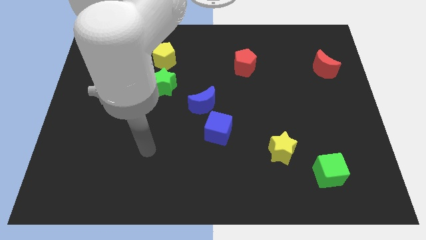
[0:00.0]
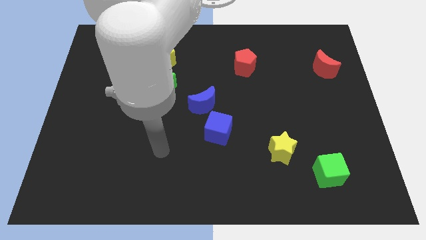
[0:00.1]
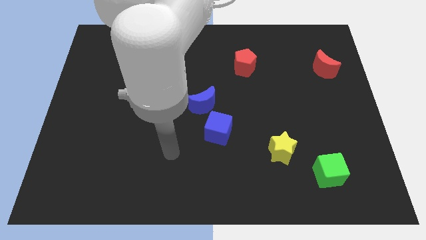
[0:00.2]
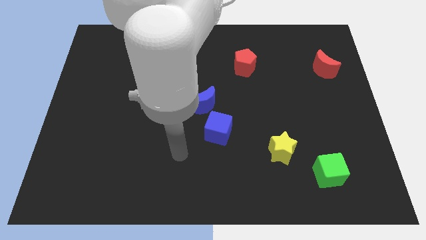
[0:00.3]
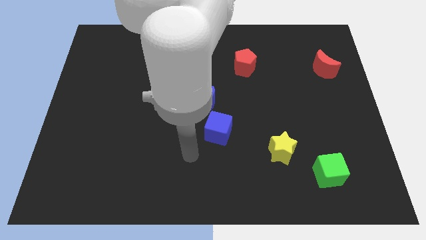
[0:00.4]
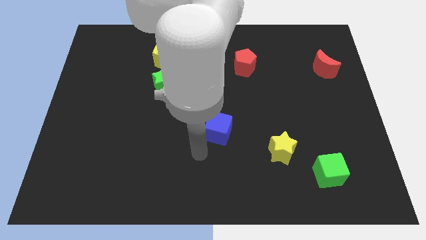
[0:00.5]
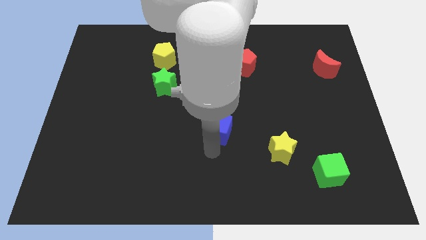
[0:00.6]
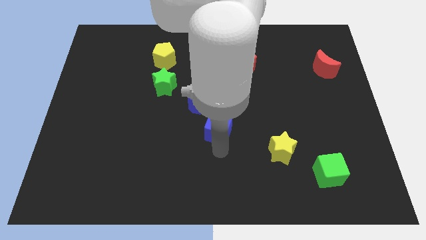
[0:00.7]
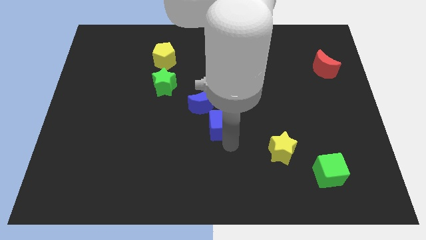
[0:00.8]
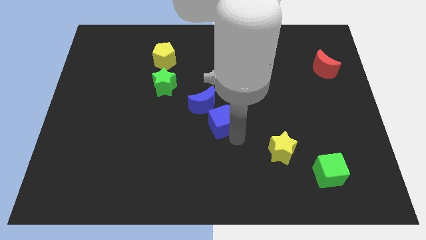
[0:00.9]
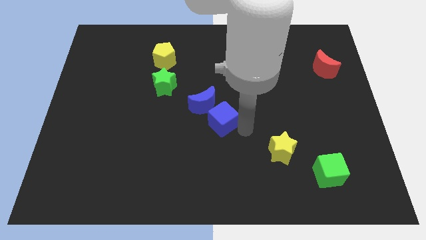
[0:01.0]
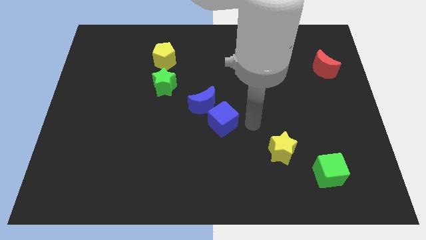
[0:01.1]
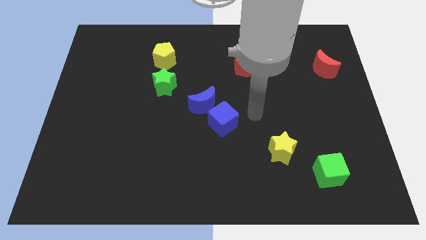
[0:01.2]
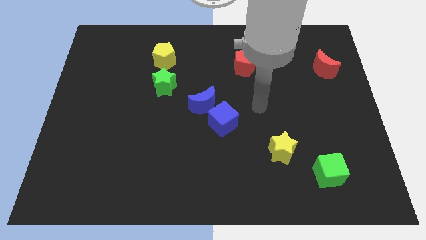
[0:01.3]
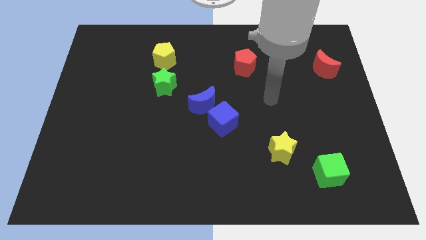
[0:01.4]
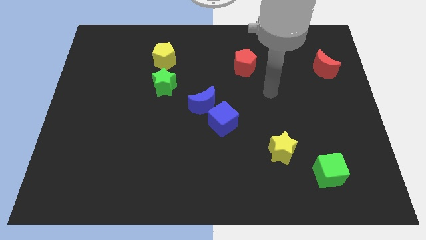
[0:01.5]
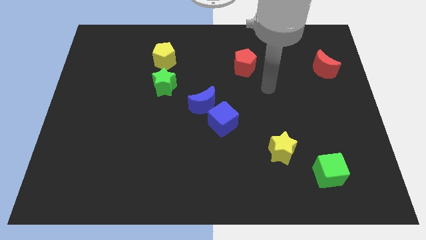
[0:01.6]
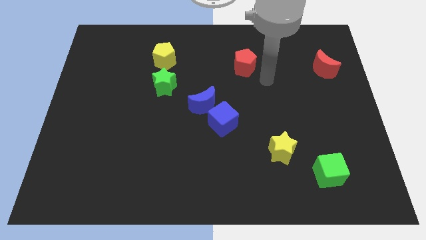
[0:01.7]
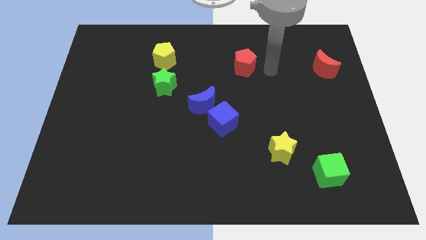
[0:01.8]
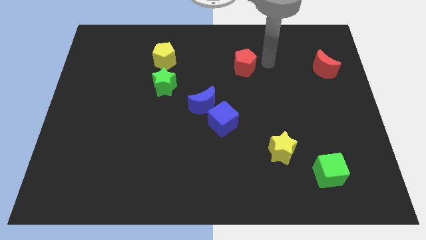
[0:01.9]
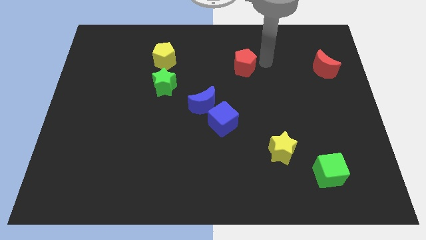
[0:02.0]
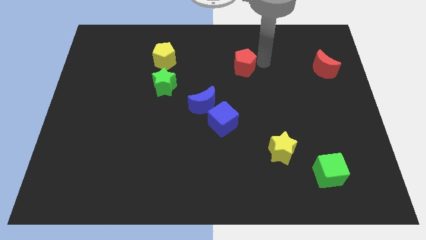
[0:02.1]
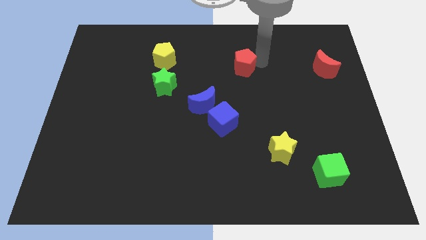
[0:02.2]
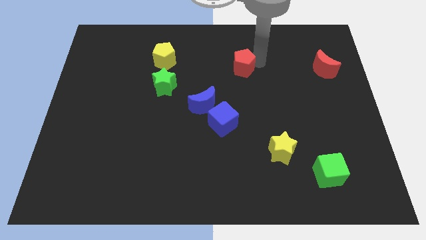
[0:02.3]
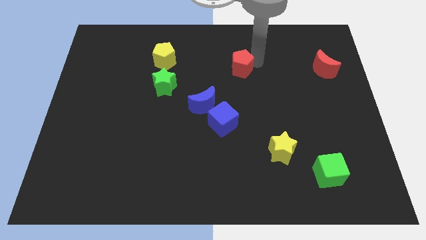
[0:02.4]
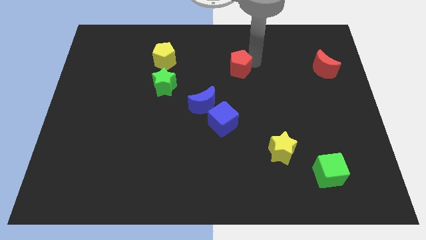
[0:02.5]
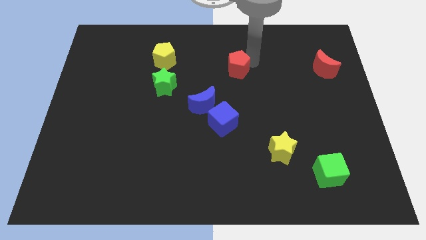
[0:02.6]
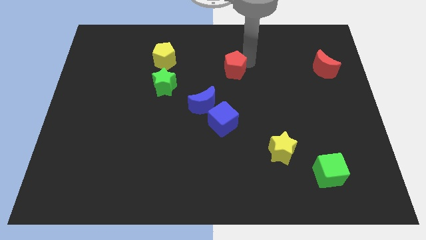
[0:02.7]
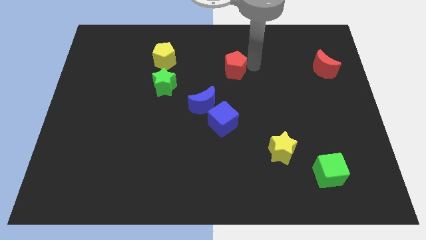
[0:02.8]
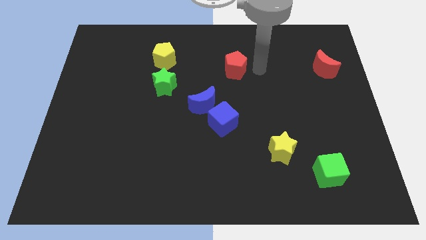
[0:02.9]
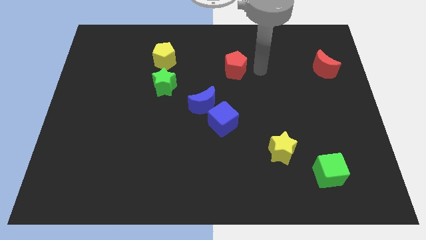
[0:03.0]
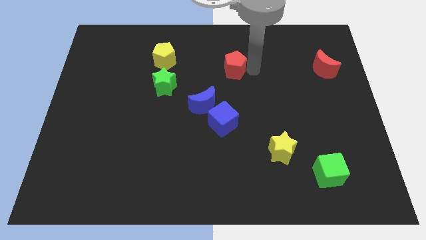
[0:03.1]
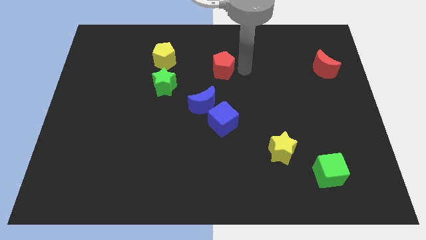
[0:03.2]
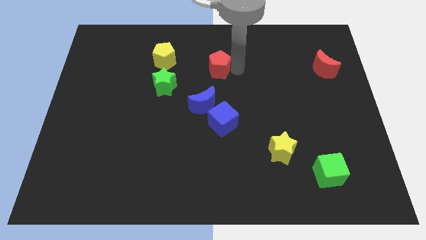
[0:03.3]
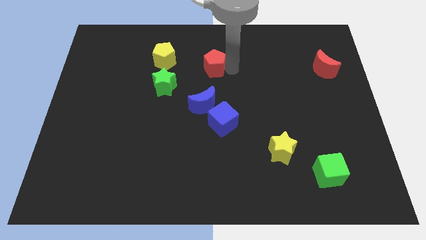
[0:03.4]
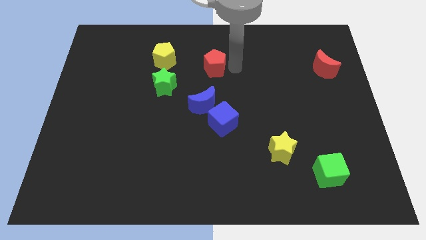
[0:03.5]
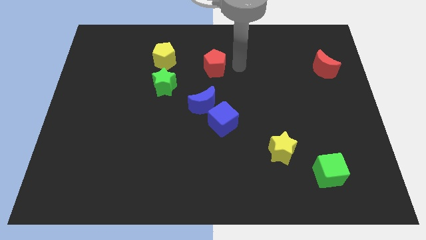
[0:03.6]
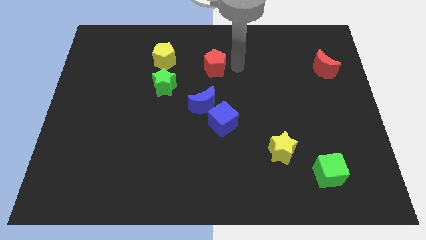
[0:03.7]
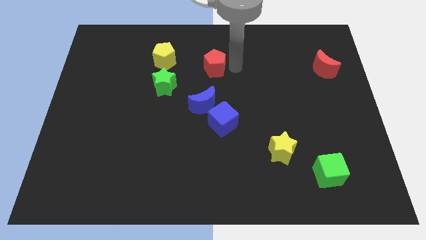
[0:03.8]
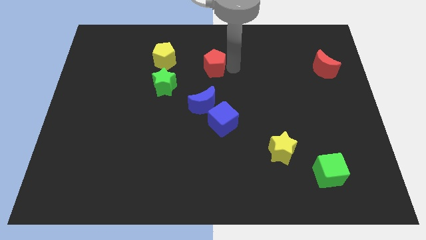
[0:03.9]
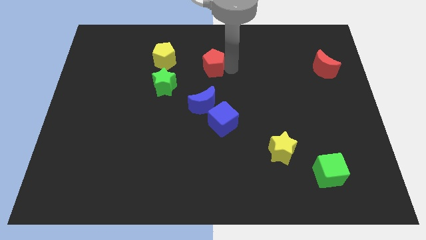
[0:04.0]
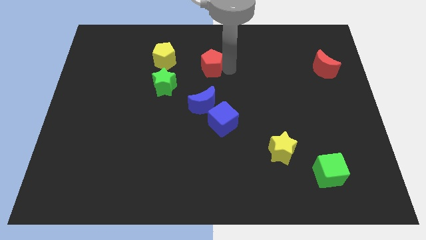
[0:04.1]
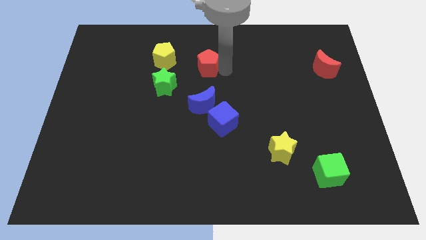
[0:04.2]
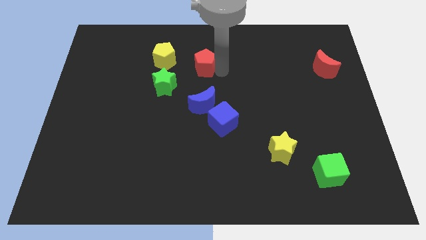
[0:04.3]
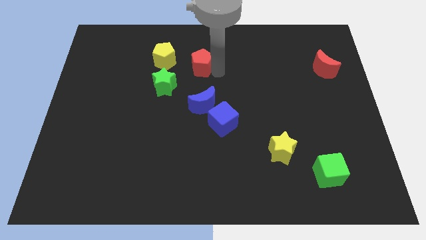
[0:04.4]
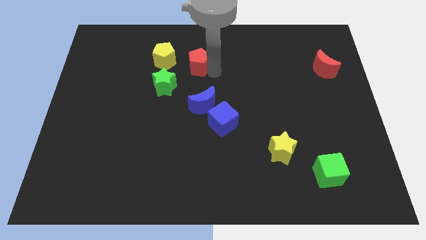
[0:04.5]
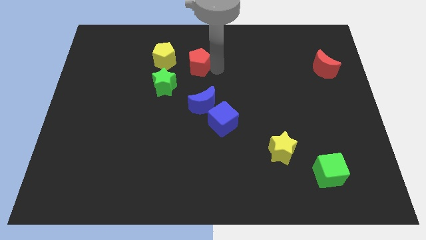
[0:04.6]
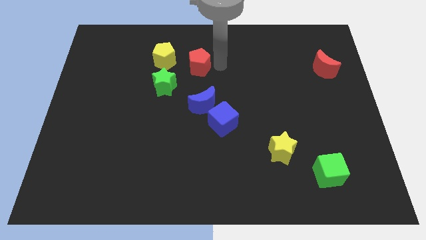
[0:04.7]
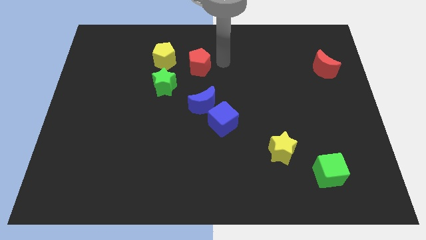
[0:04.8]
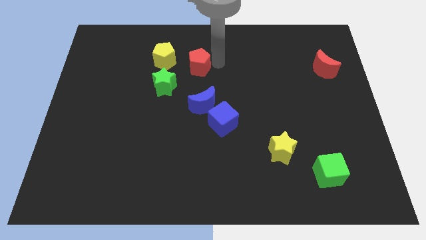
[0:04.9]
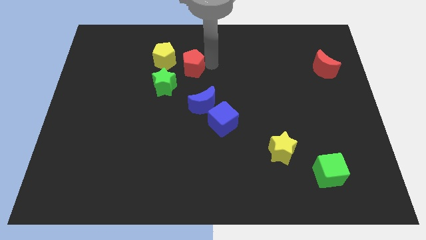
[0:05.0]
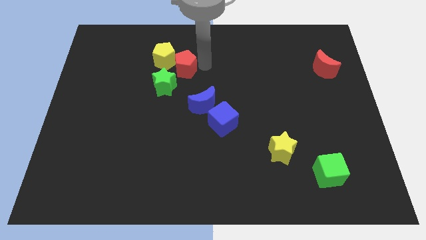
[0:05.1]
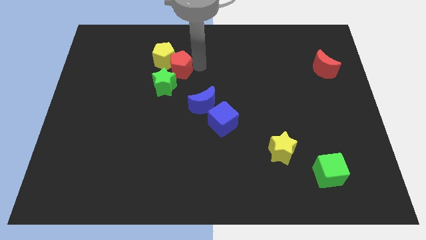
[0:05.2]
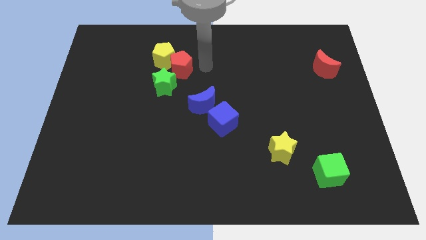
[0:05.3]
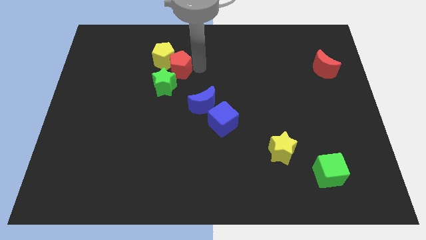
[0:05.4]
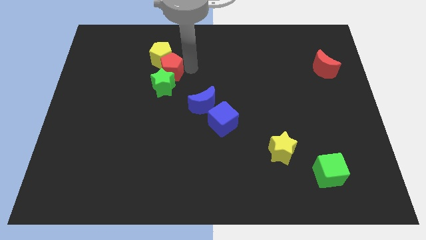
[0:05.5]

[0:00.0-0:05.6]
push the red pentagon to the top left of the green star

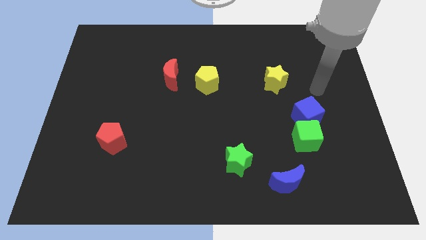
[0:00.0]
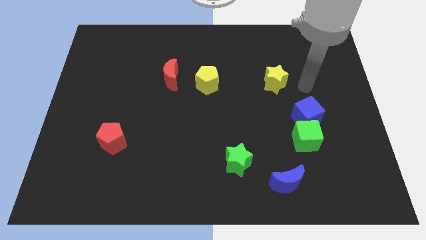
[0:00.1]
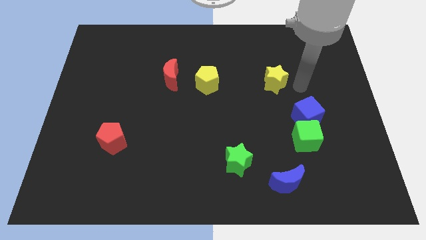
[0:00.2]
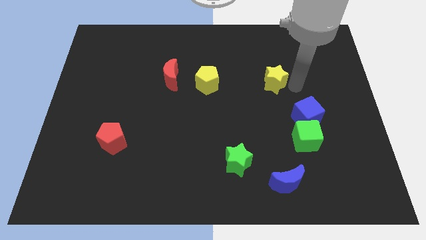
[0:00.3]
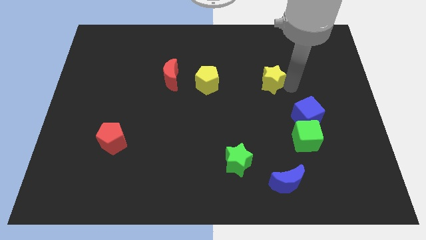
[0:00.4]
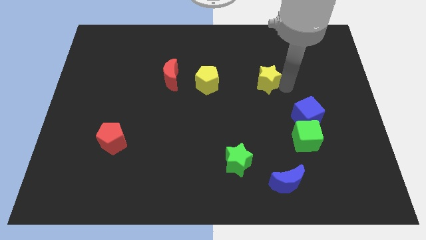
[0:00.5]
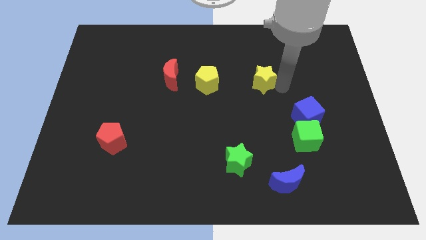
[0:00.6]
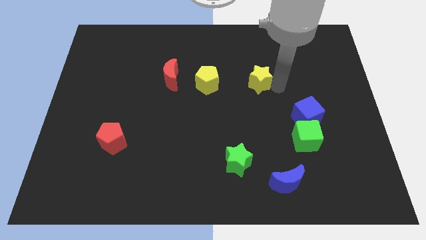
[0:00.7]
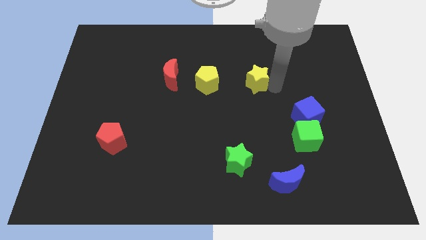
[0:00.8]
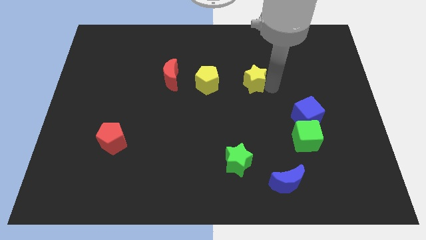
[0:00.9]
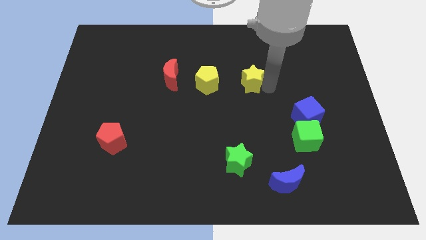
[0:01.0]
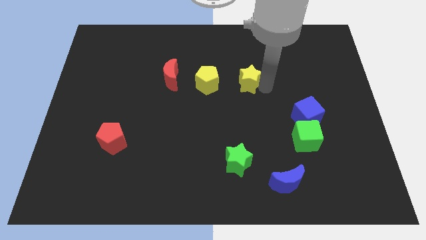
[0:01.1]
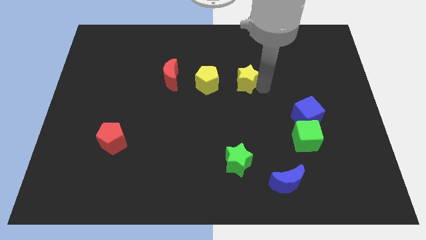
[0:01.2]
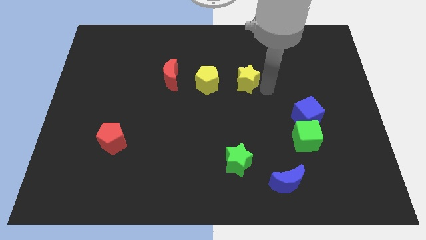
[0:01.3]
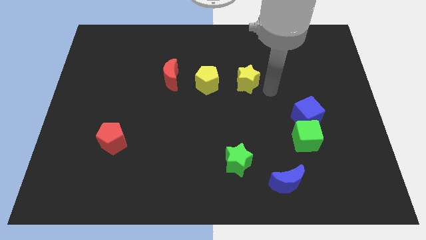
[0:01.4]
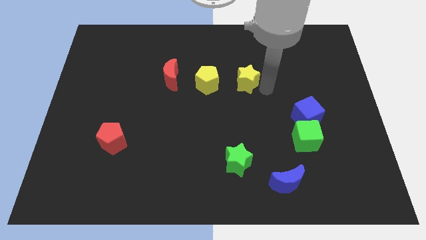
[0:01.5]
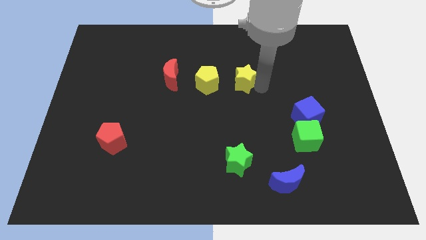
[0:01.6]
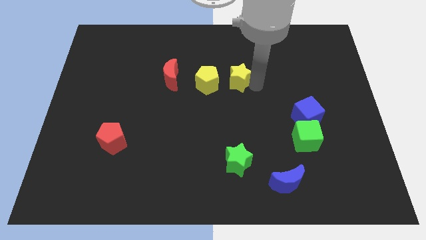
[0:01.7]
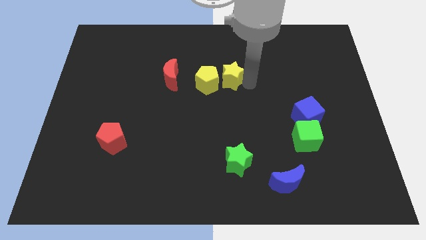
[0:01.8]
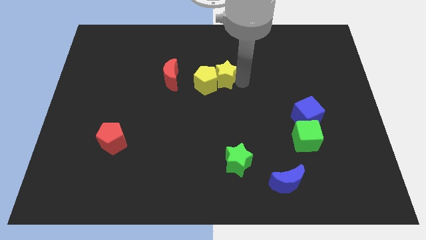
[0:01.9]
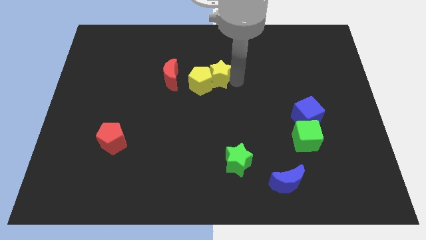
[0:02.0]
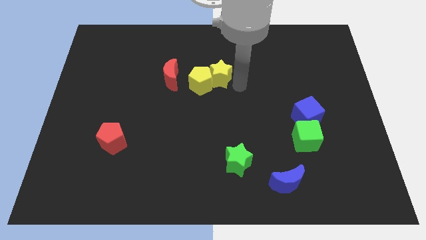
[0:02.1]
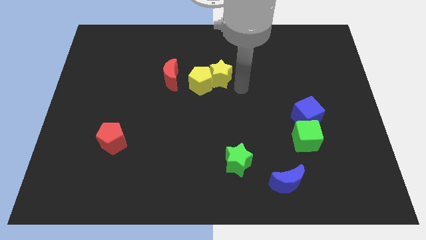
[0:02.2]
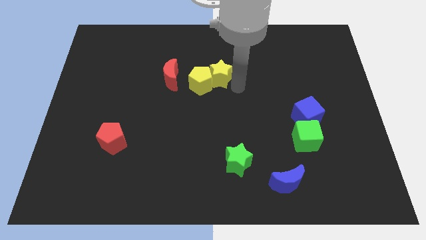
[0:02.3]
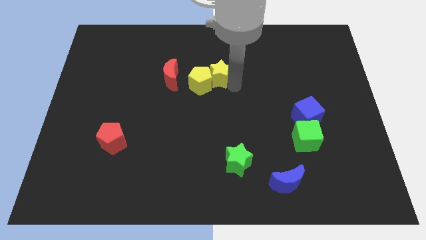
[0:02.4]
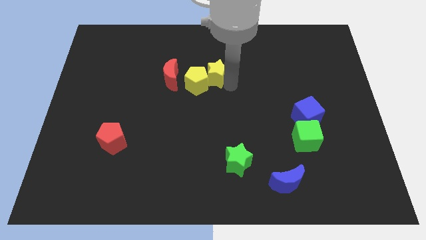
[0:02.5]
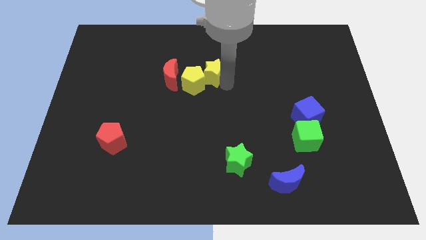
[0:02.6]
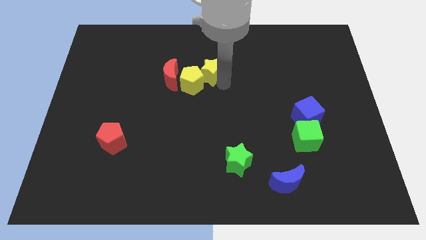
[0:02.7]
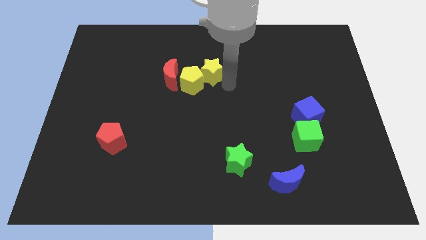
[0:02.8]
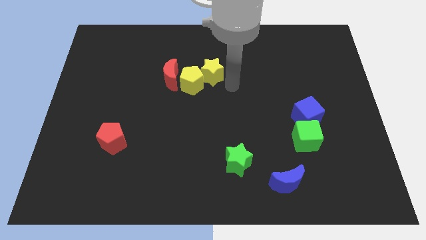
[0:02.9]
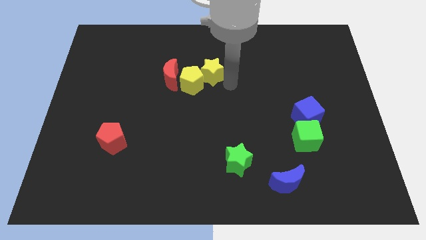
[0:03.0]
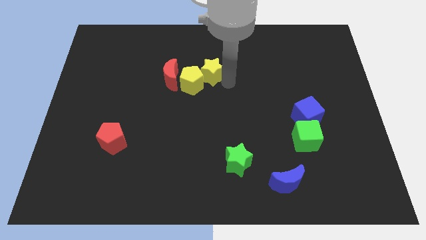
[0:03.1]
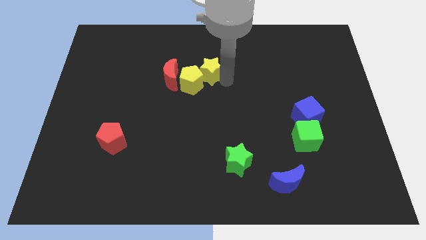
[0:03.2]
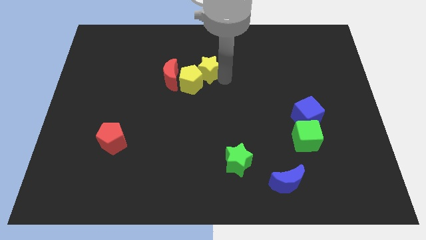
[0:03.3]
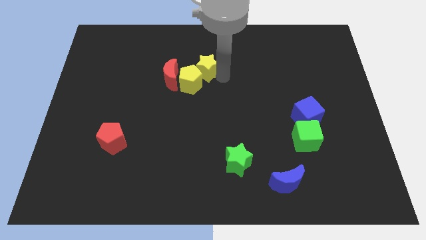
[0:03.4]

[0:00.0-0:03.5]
put the yellow star to the top right of the red moon
